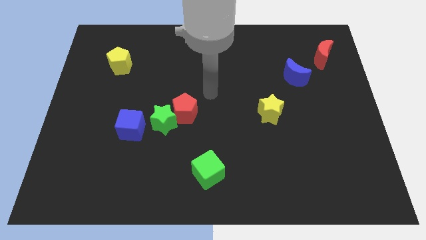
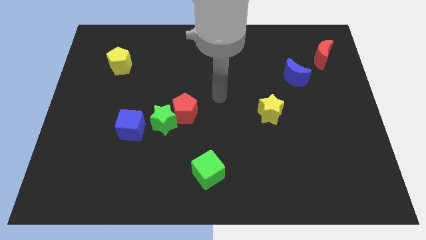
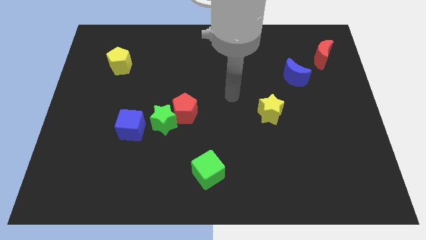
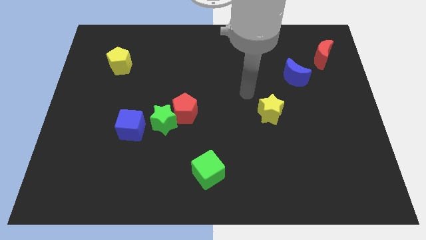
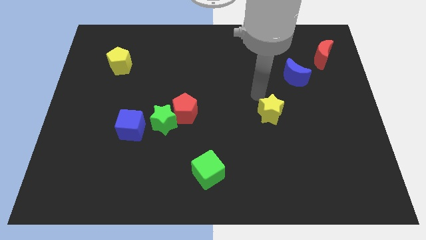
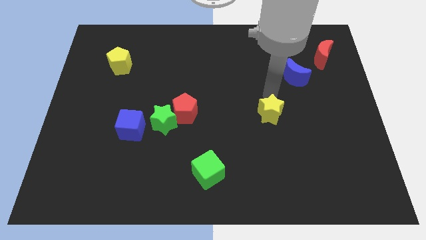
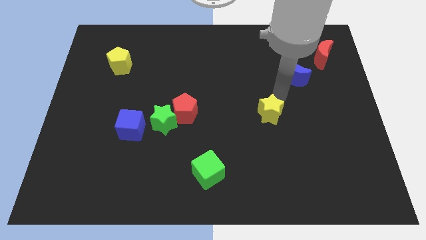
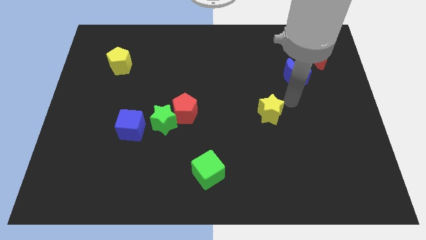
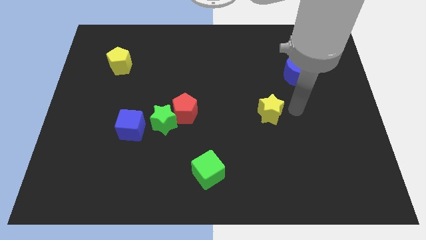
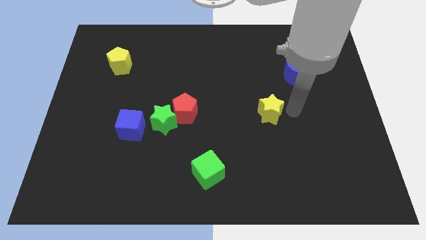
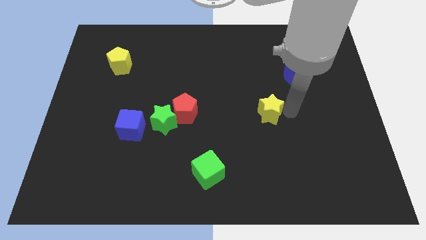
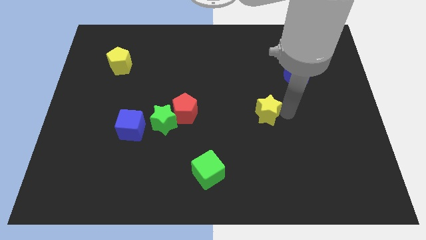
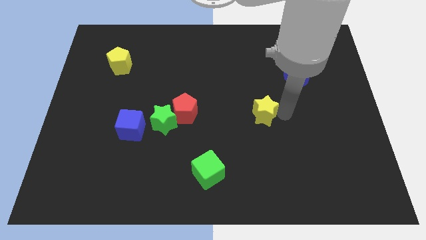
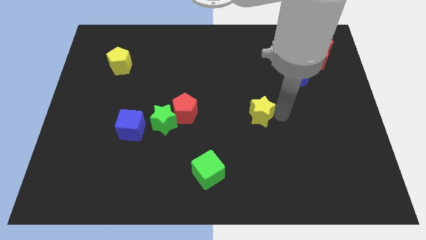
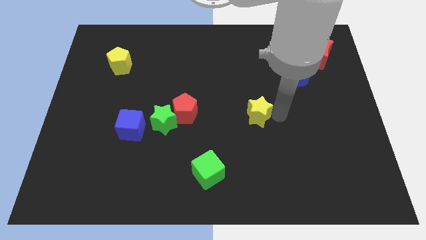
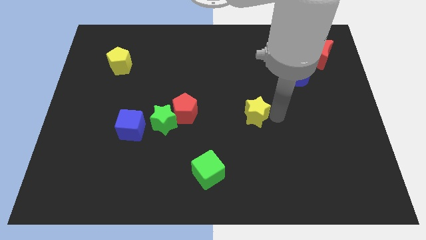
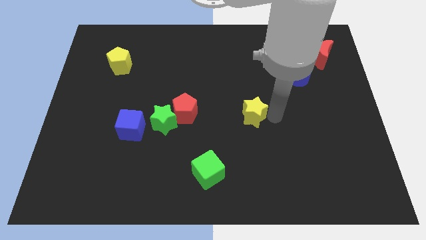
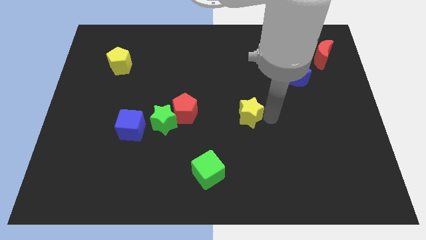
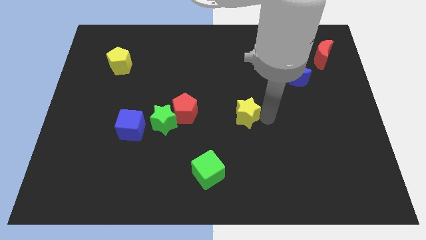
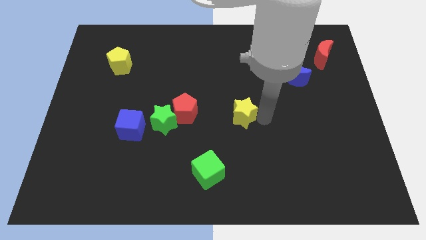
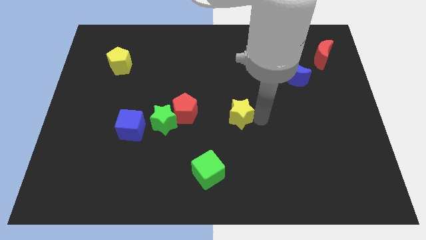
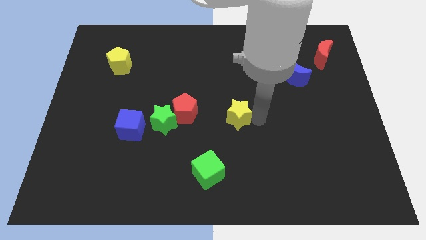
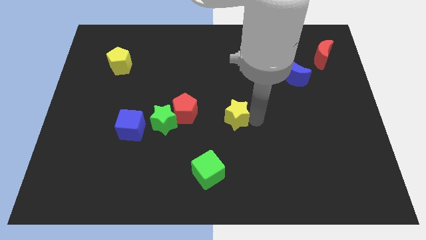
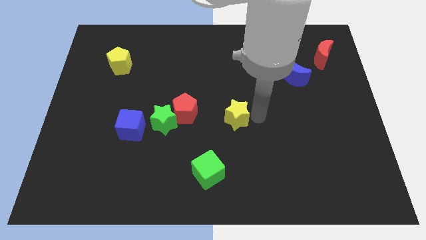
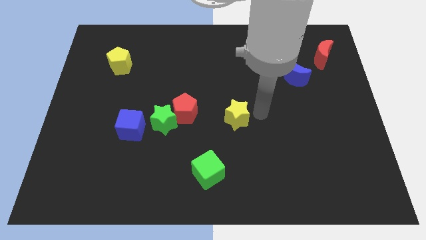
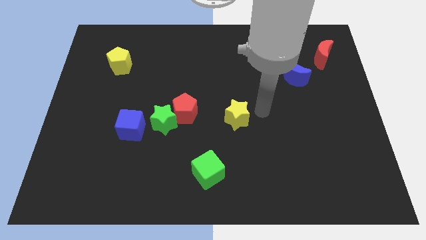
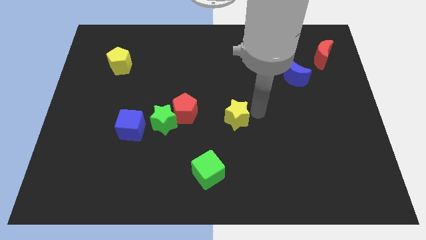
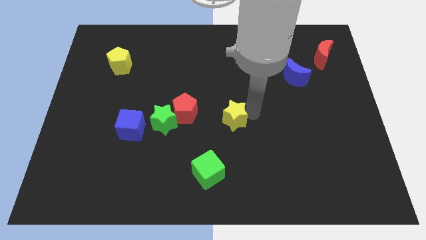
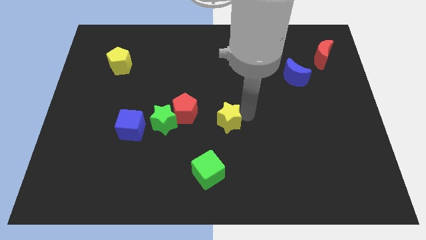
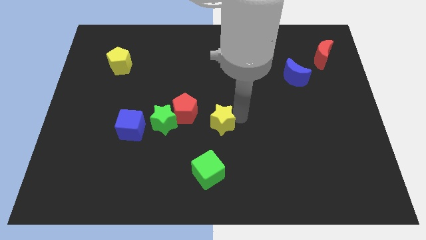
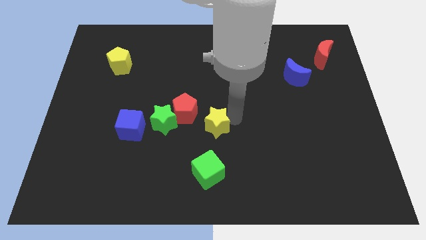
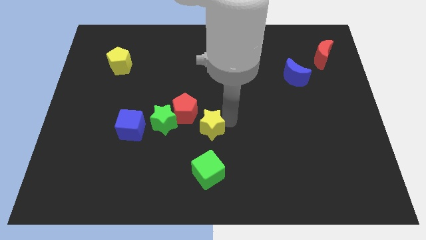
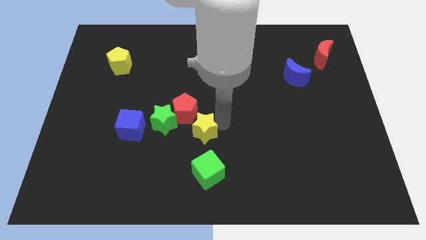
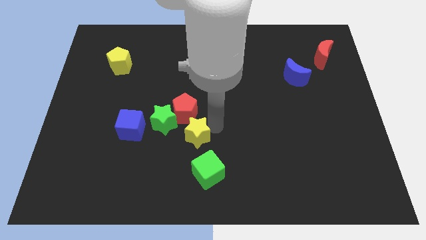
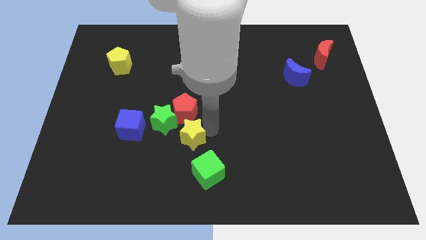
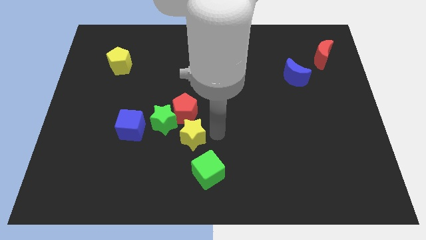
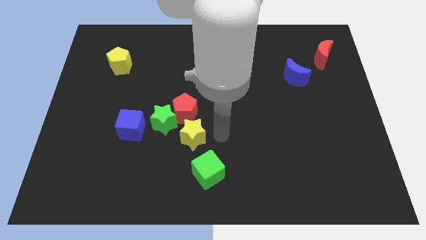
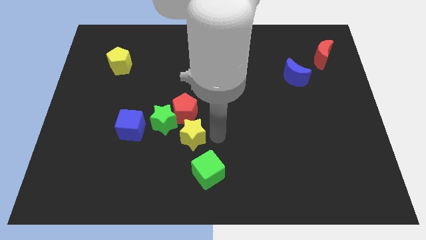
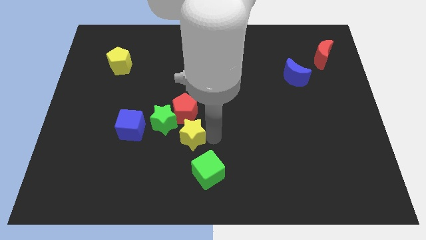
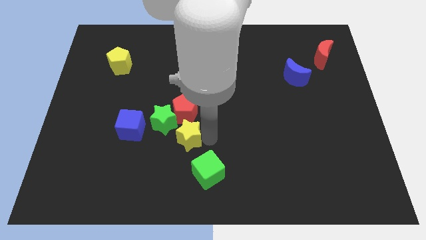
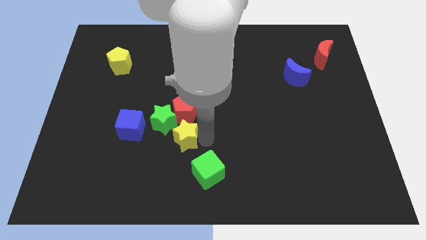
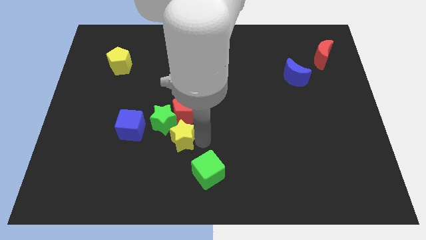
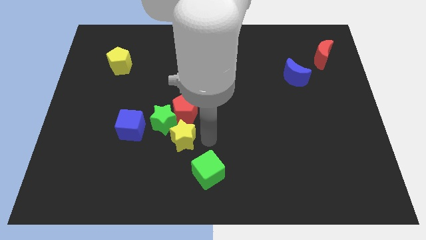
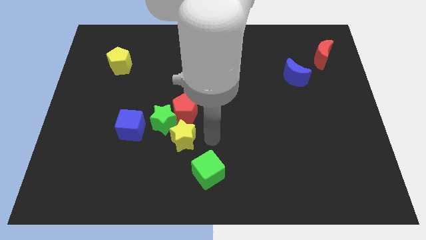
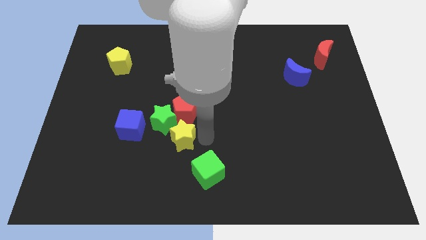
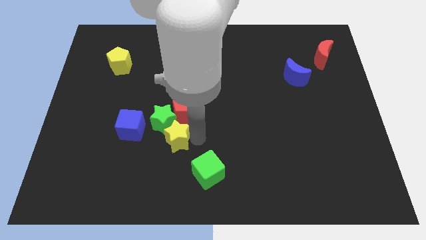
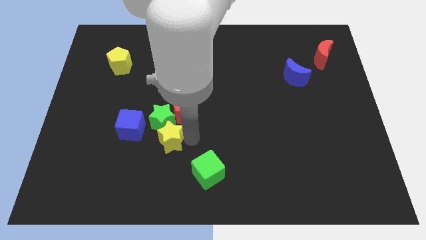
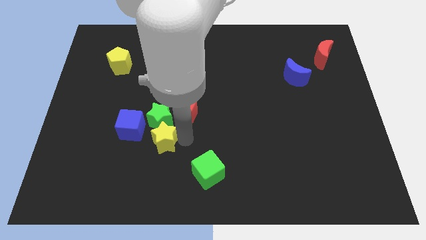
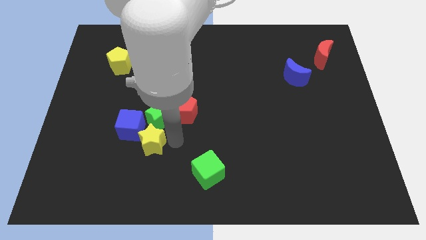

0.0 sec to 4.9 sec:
slide the yellow star close to the blue cube

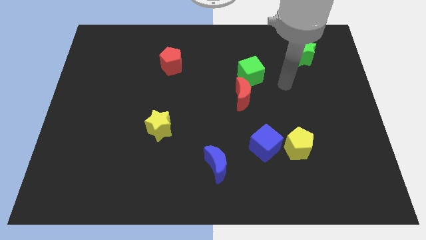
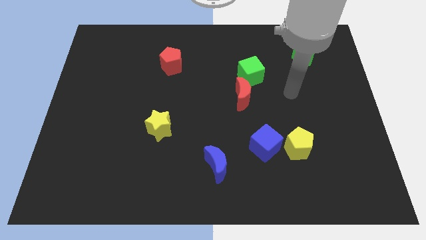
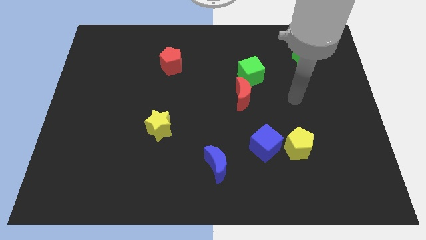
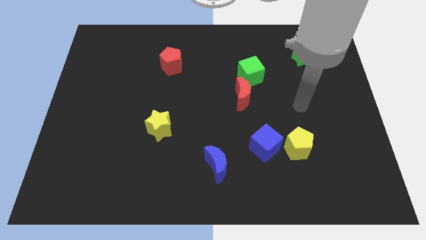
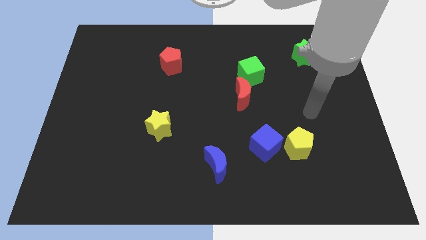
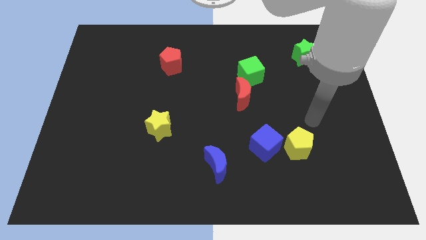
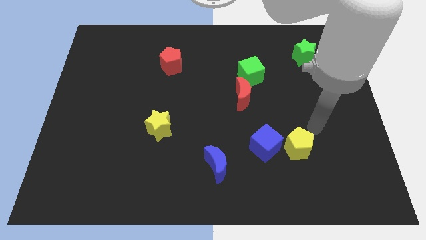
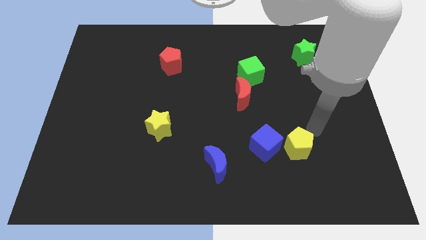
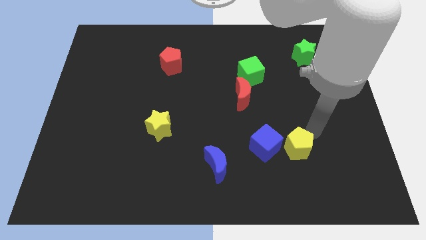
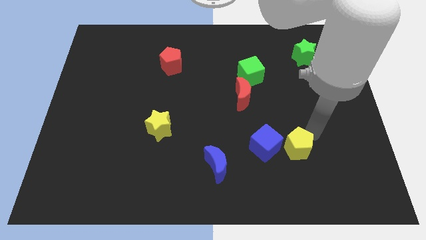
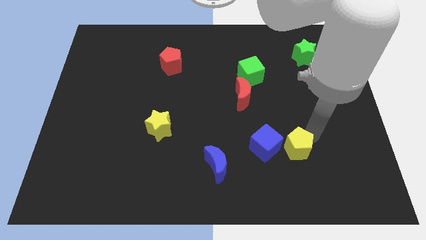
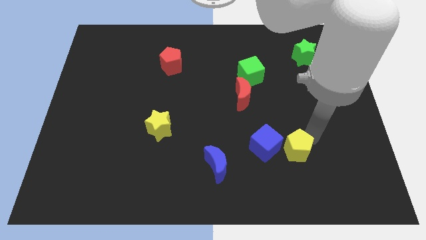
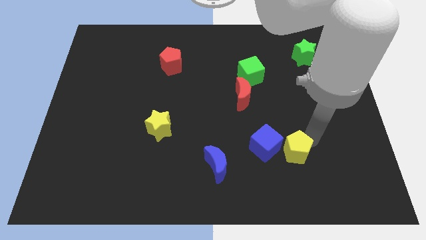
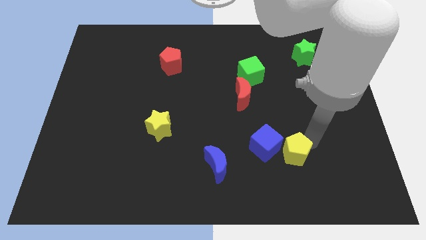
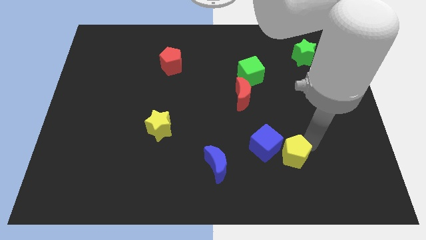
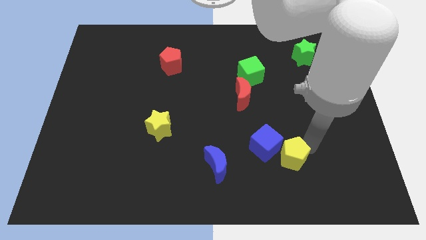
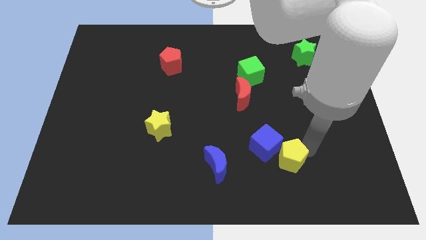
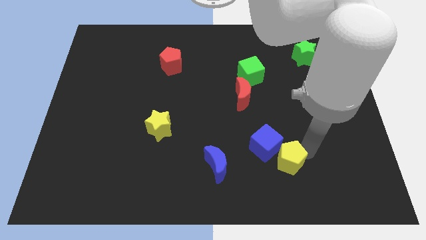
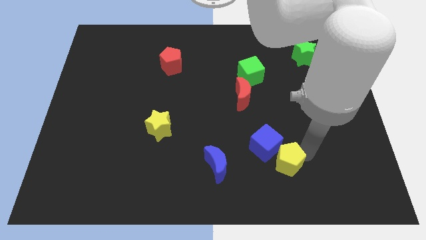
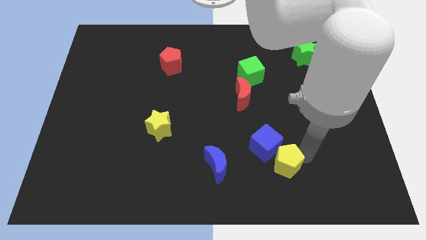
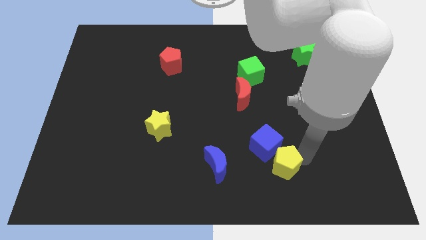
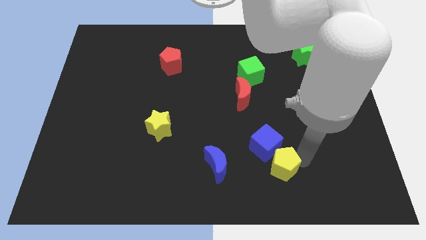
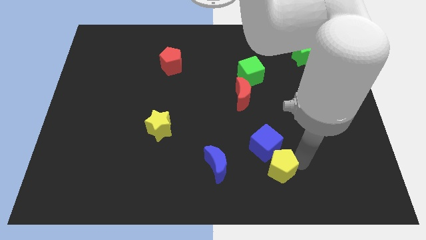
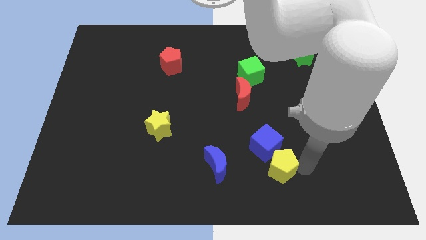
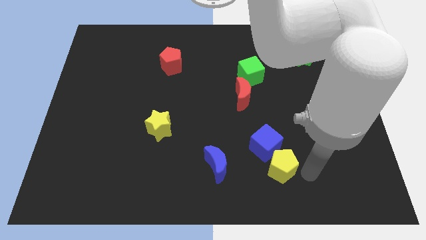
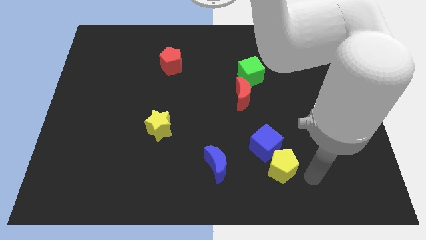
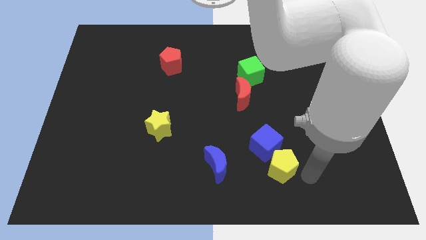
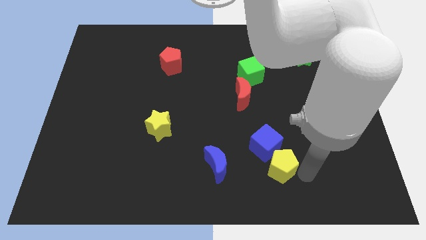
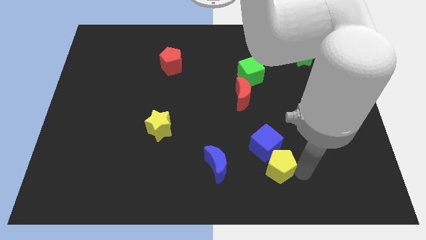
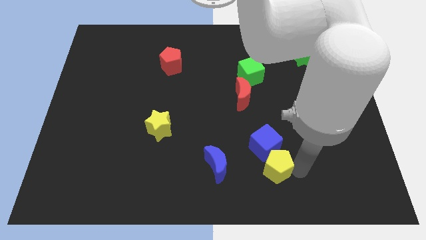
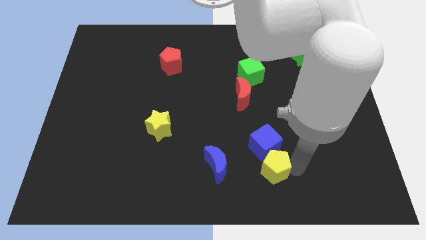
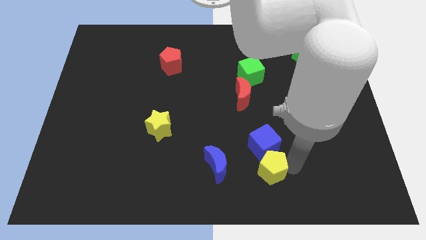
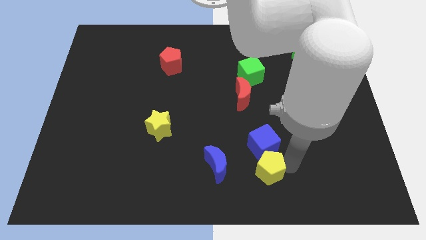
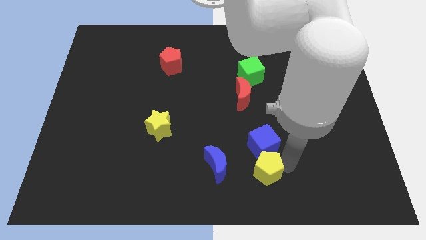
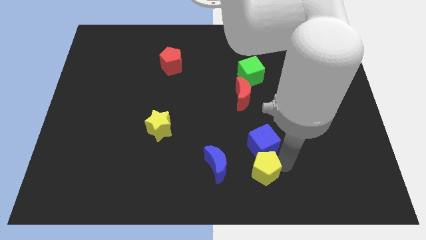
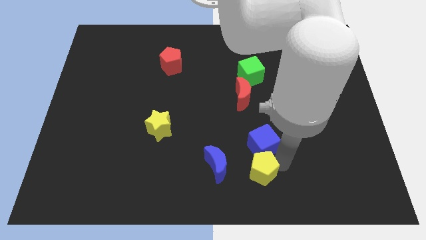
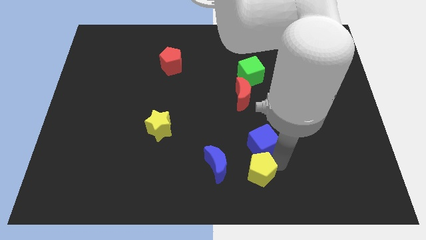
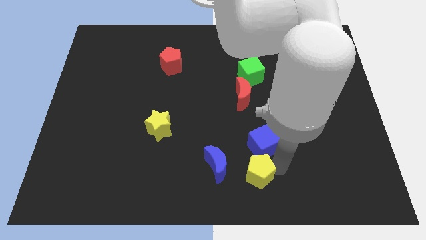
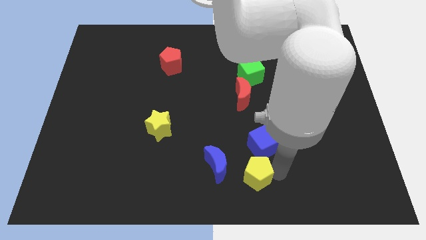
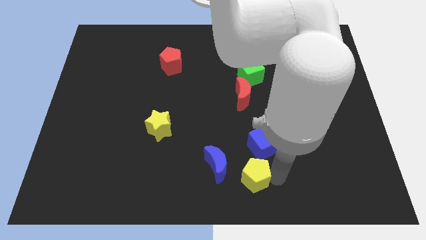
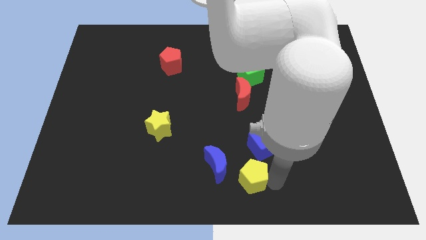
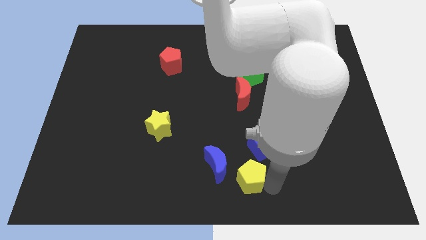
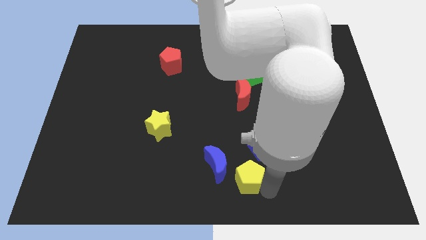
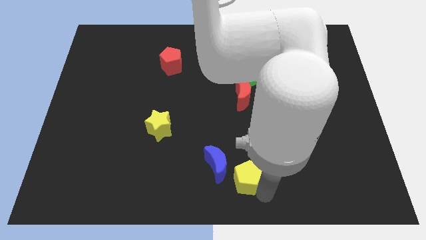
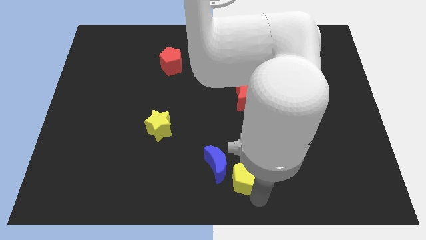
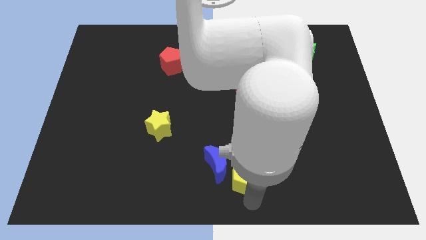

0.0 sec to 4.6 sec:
slide the yellow pentagon next to the blue moon
